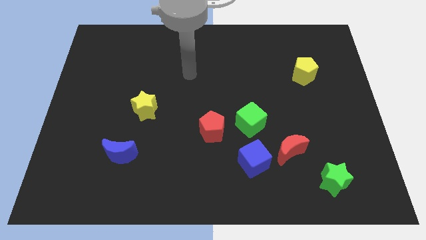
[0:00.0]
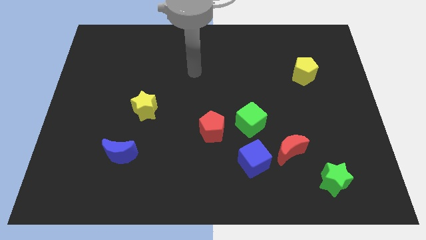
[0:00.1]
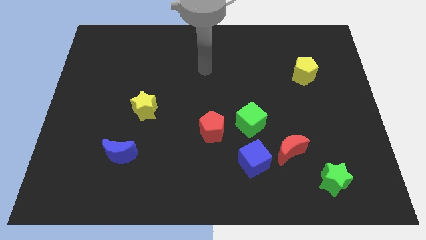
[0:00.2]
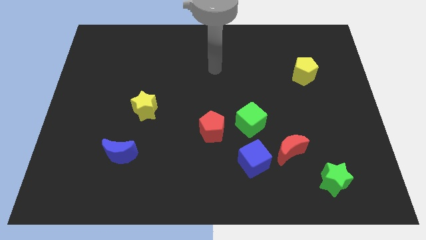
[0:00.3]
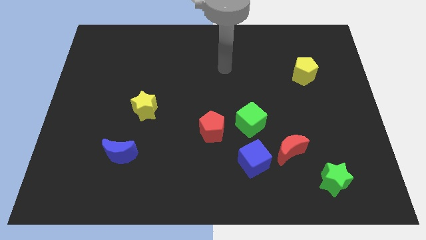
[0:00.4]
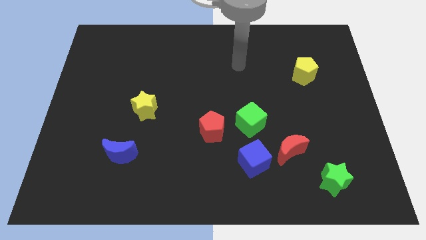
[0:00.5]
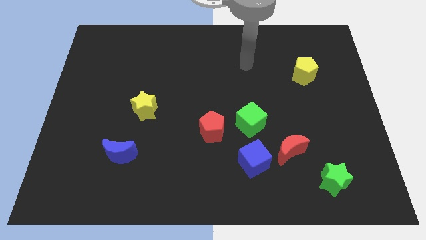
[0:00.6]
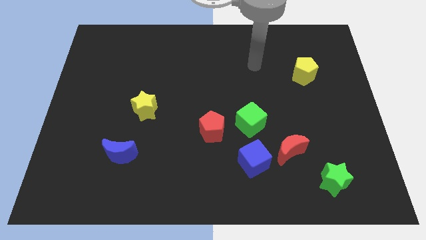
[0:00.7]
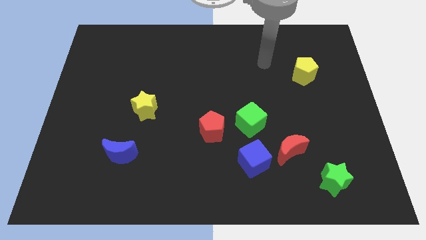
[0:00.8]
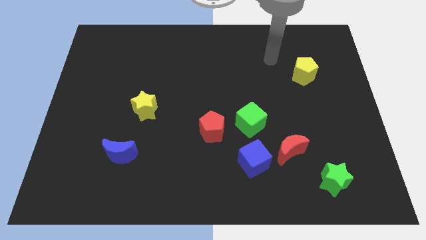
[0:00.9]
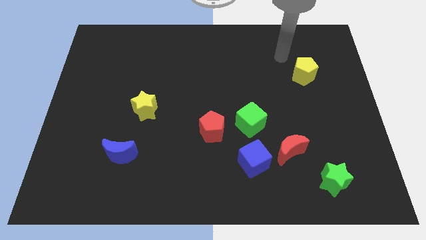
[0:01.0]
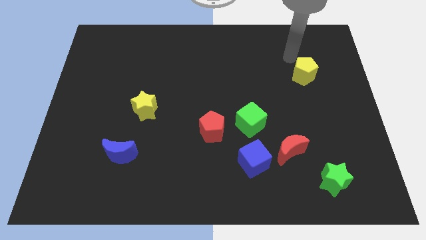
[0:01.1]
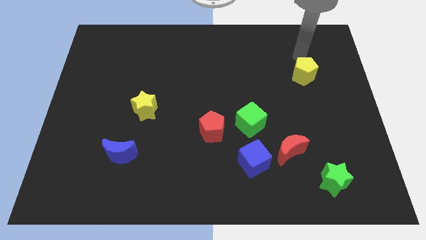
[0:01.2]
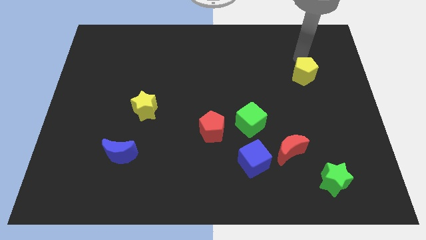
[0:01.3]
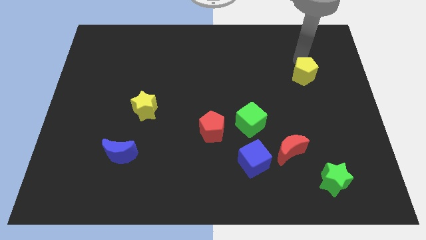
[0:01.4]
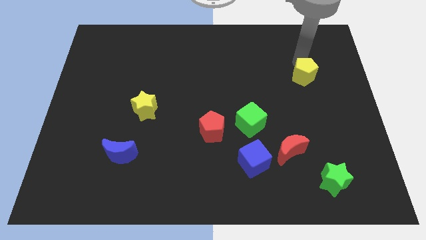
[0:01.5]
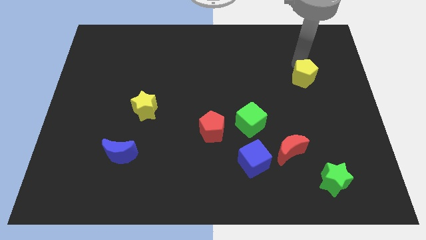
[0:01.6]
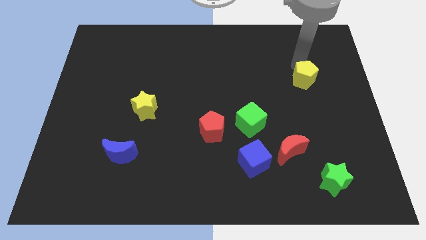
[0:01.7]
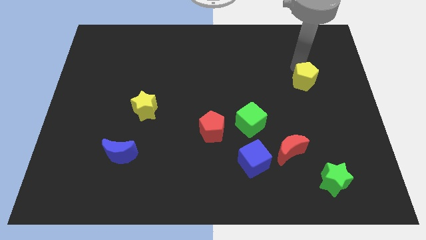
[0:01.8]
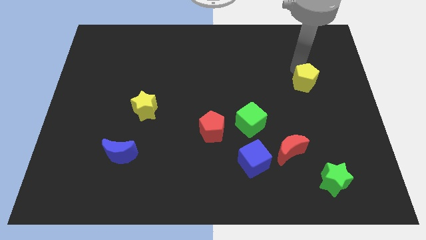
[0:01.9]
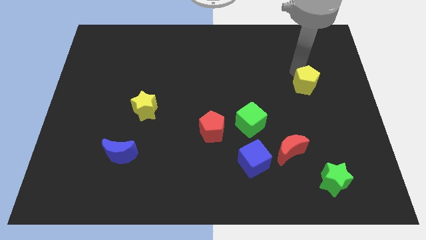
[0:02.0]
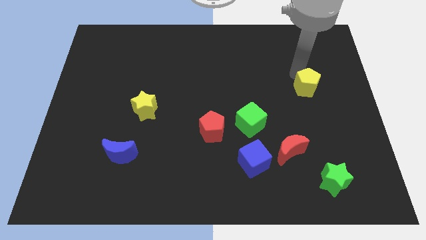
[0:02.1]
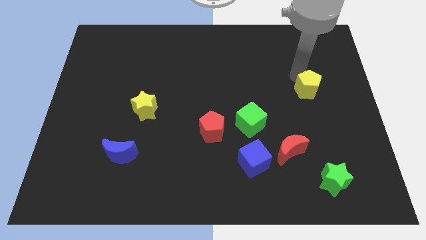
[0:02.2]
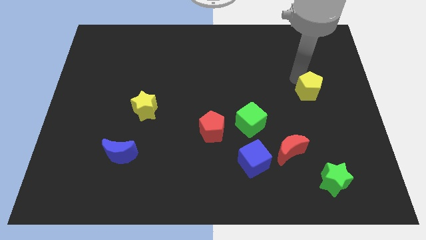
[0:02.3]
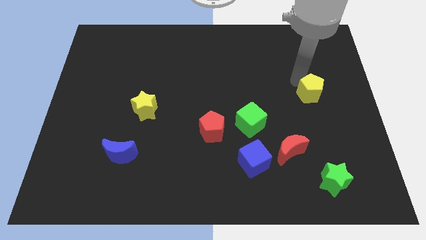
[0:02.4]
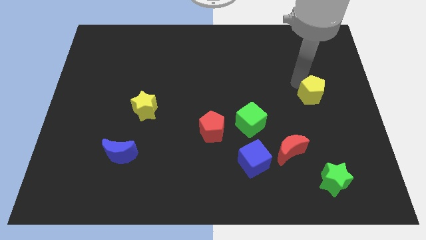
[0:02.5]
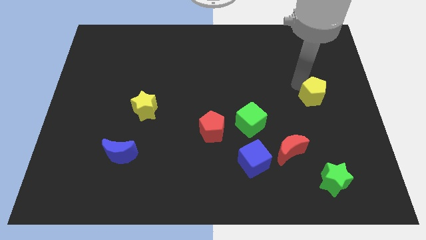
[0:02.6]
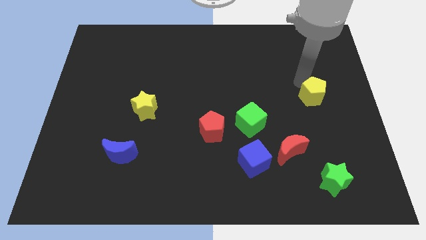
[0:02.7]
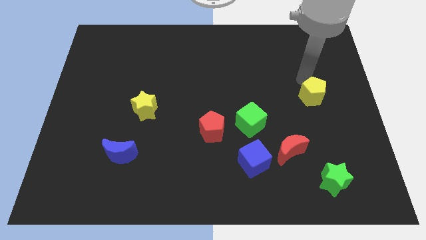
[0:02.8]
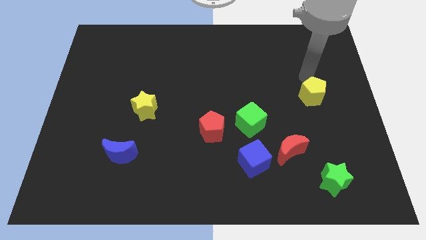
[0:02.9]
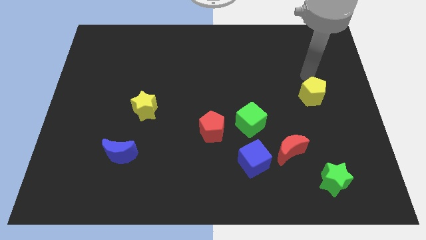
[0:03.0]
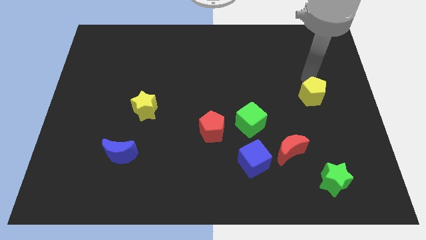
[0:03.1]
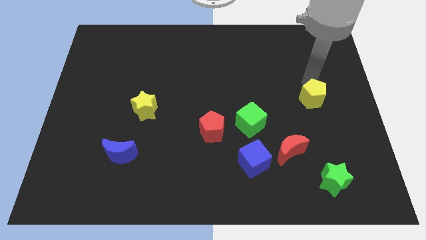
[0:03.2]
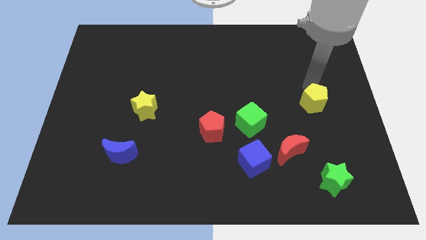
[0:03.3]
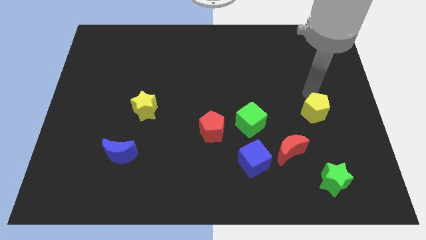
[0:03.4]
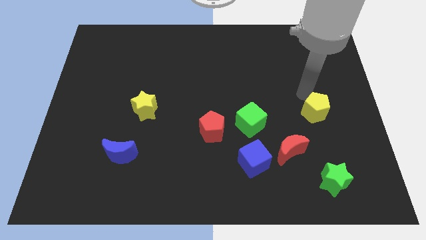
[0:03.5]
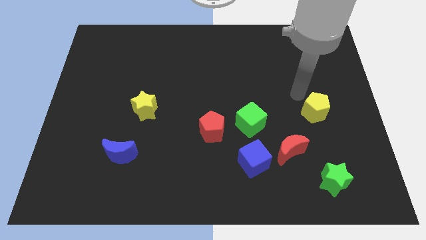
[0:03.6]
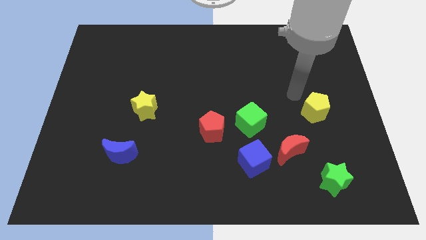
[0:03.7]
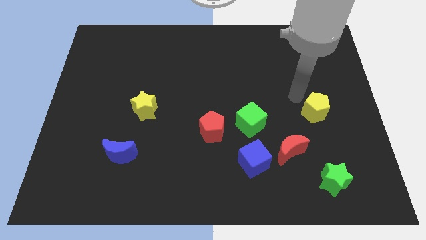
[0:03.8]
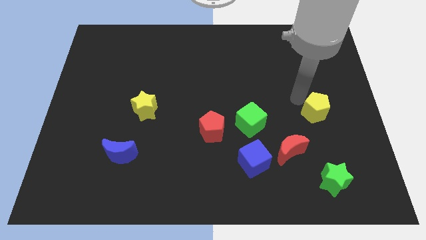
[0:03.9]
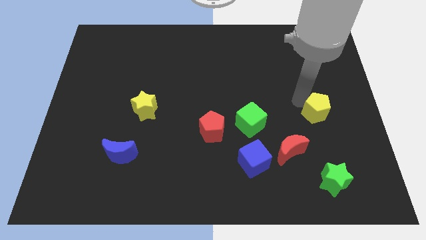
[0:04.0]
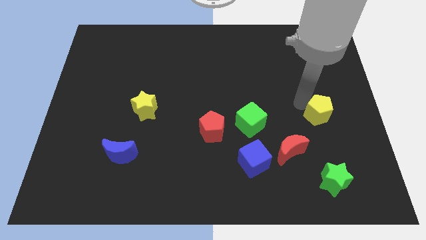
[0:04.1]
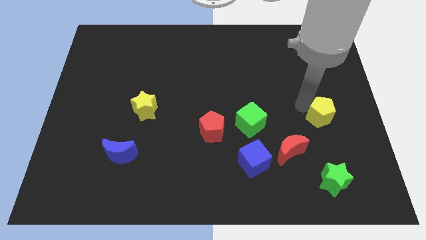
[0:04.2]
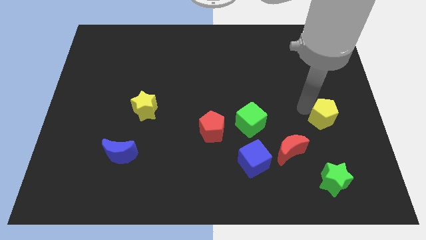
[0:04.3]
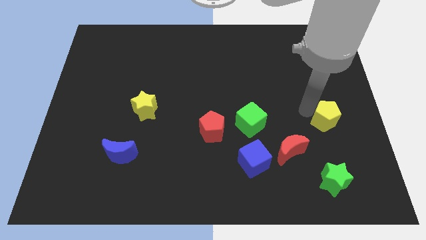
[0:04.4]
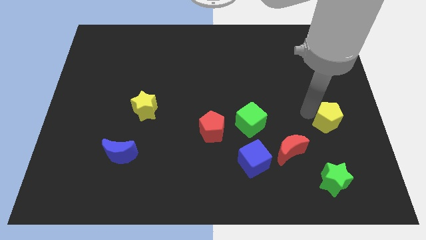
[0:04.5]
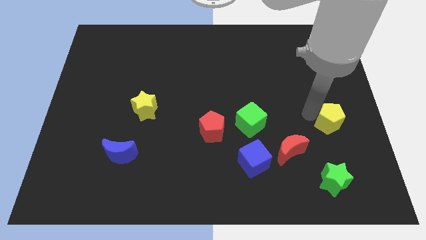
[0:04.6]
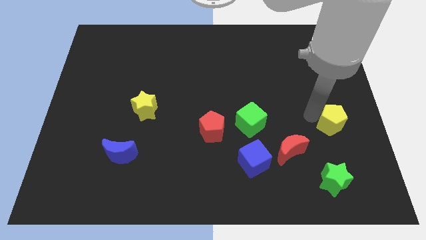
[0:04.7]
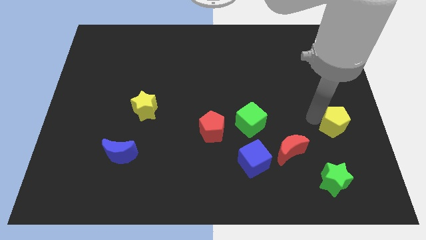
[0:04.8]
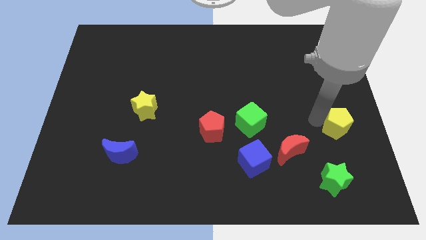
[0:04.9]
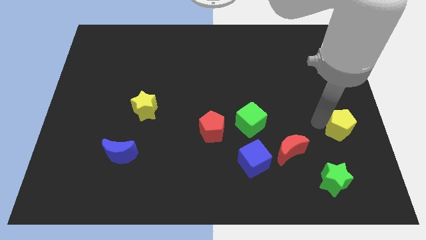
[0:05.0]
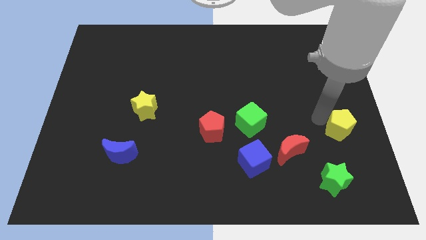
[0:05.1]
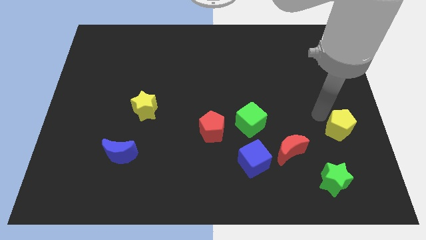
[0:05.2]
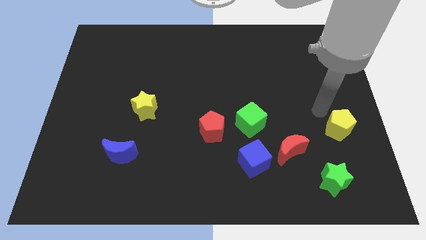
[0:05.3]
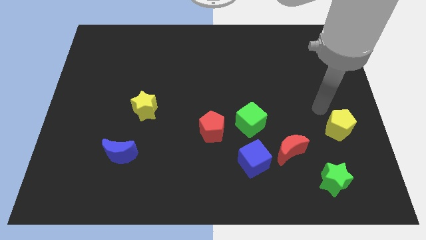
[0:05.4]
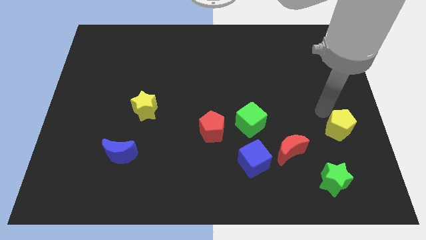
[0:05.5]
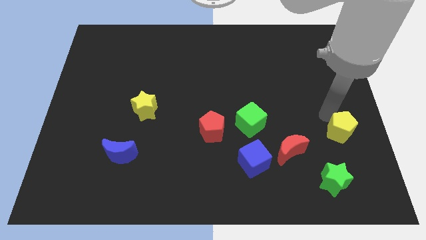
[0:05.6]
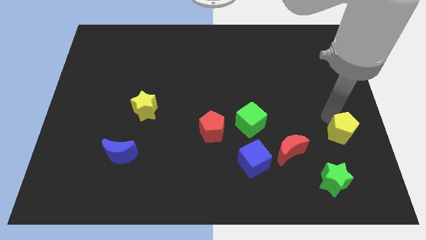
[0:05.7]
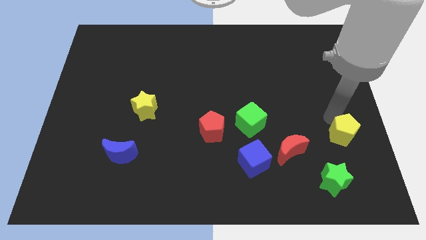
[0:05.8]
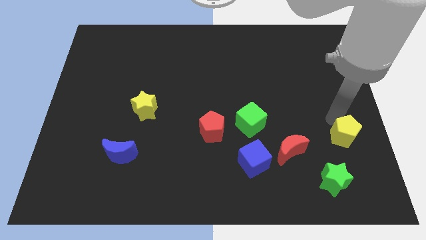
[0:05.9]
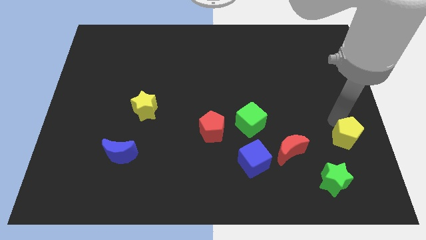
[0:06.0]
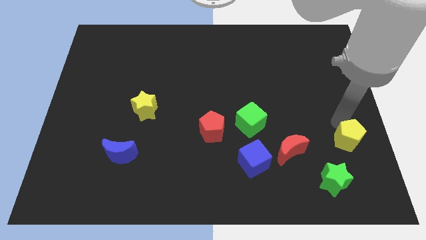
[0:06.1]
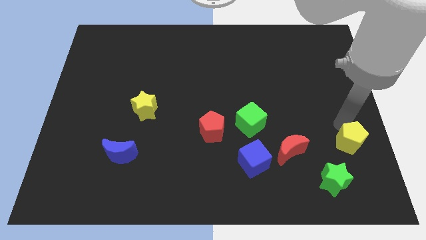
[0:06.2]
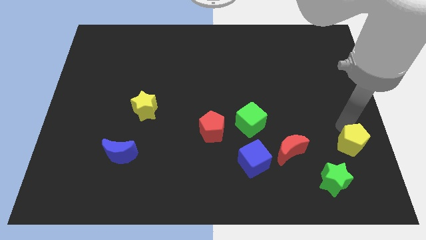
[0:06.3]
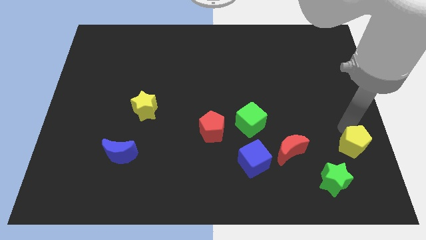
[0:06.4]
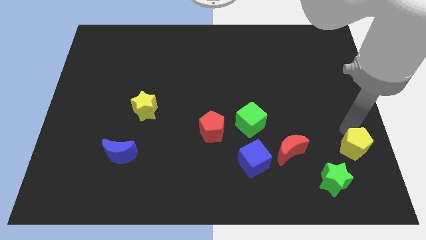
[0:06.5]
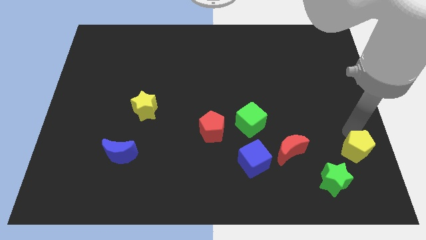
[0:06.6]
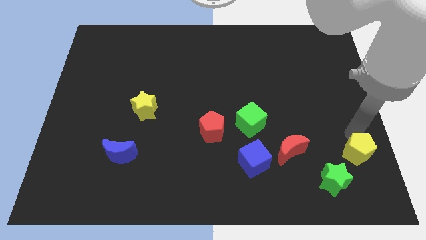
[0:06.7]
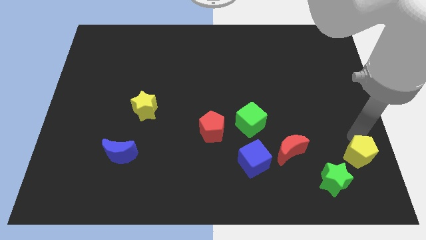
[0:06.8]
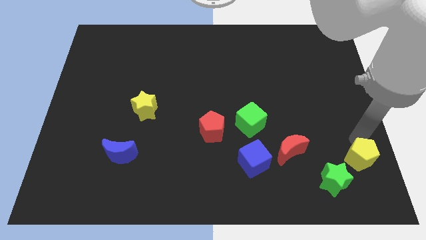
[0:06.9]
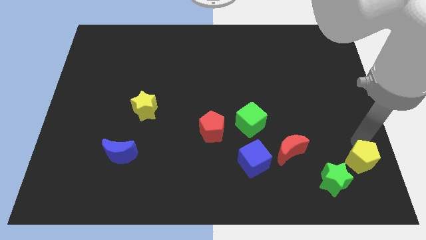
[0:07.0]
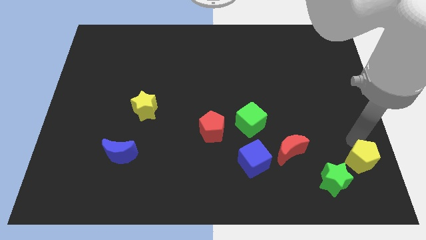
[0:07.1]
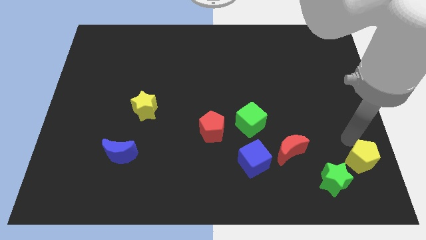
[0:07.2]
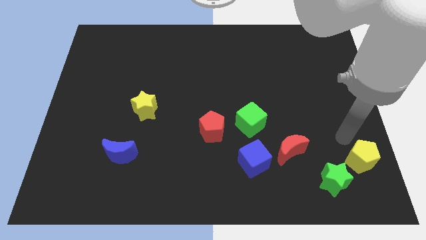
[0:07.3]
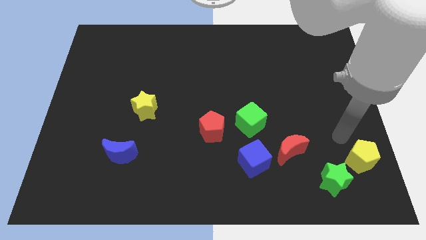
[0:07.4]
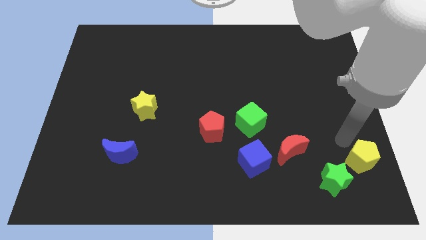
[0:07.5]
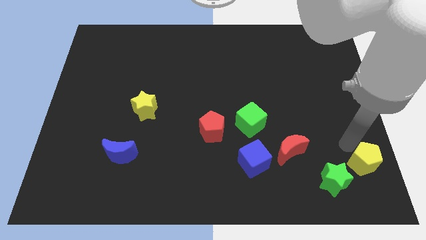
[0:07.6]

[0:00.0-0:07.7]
push the yellow pentagon to the lower right corner
